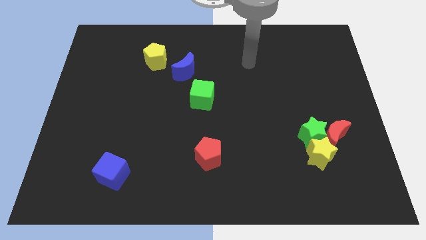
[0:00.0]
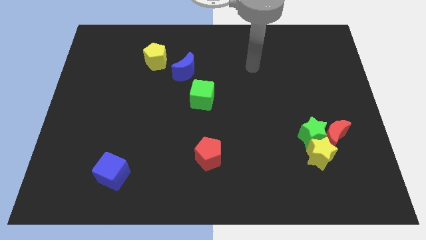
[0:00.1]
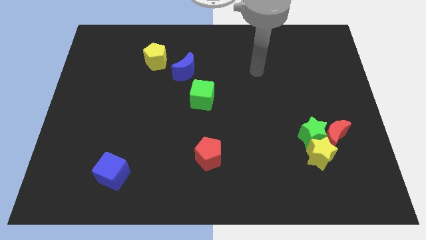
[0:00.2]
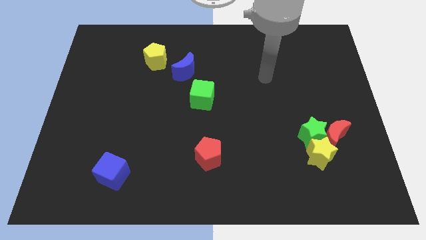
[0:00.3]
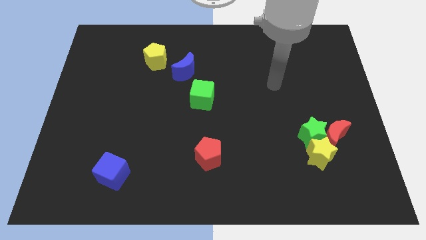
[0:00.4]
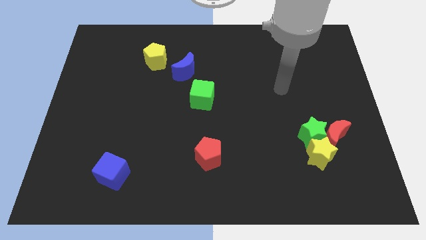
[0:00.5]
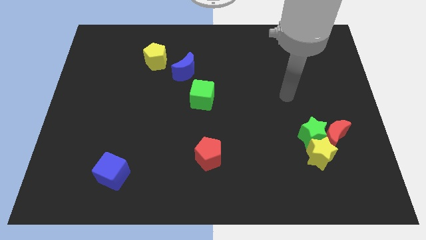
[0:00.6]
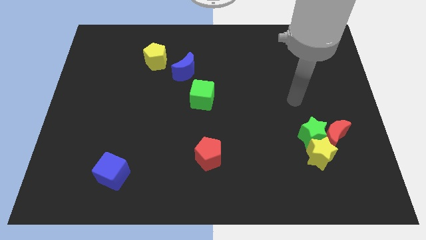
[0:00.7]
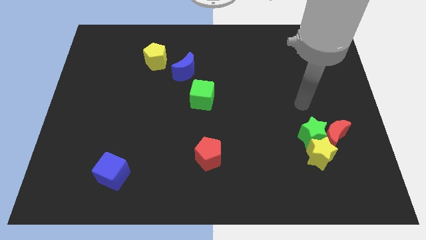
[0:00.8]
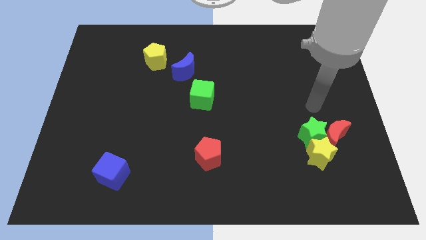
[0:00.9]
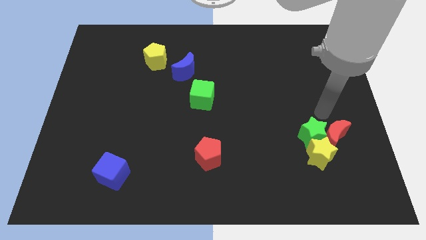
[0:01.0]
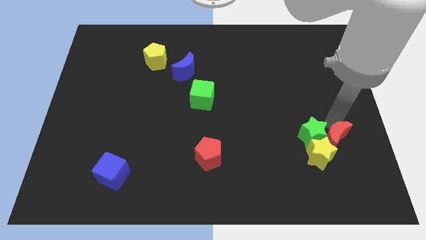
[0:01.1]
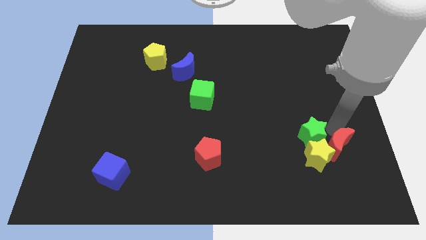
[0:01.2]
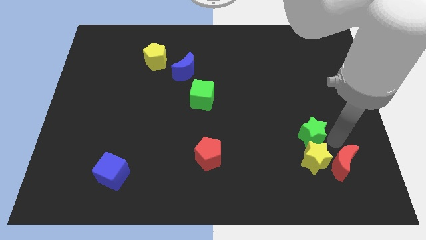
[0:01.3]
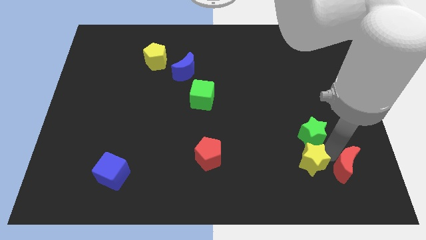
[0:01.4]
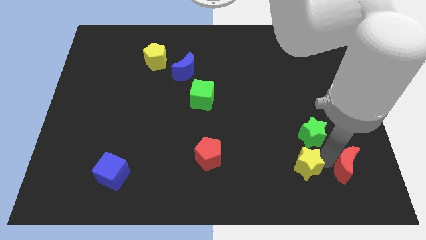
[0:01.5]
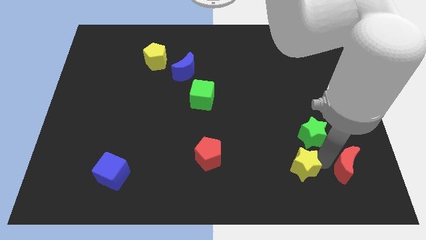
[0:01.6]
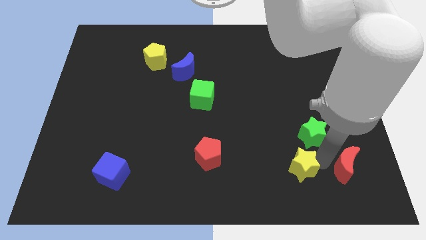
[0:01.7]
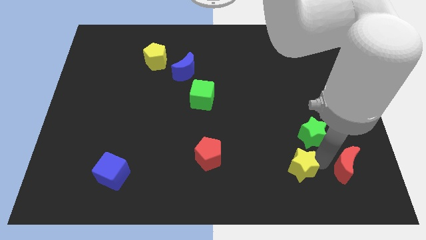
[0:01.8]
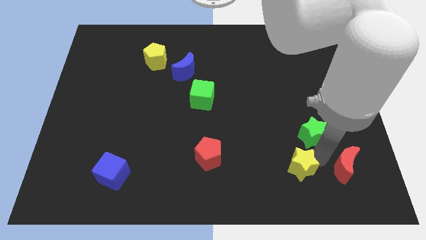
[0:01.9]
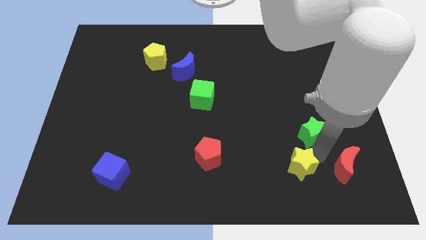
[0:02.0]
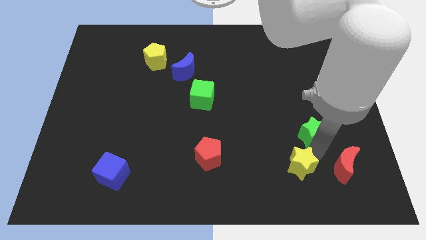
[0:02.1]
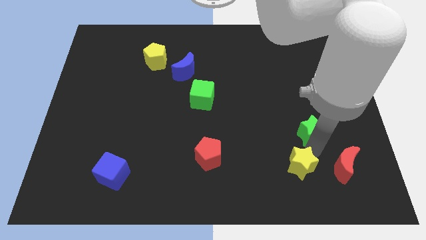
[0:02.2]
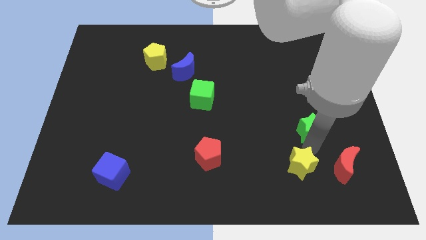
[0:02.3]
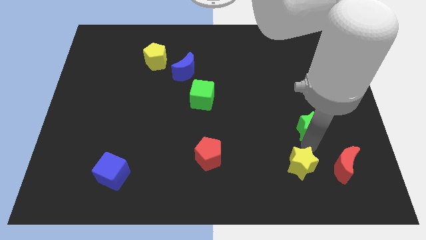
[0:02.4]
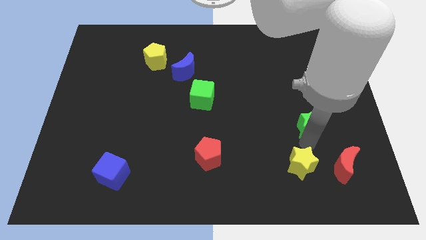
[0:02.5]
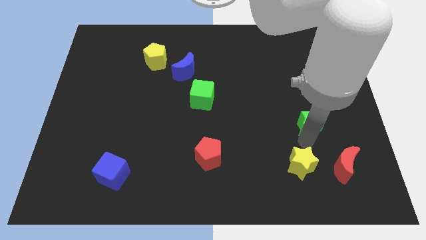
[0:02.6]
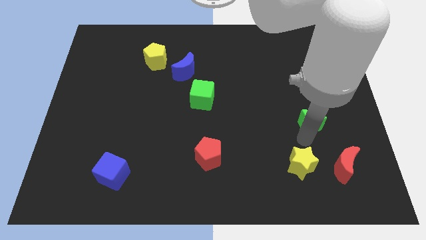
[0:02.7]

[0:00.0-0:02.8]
separate the green star from the red moon and yellow star

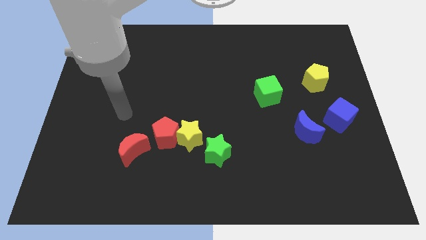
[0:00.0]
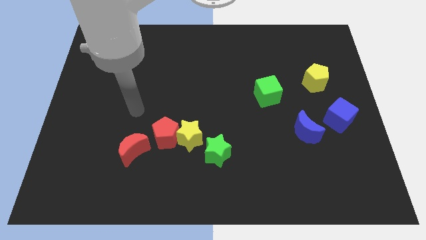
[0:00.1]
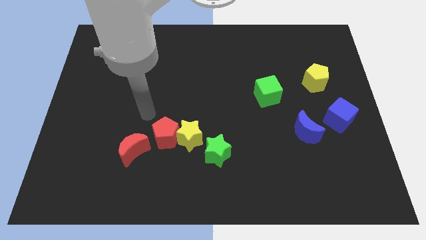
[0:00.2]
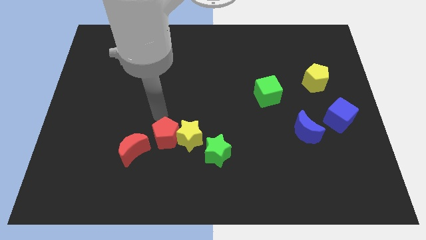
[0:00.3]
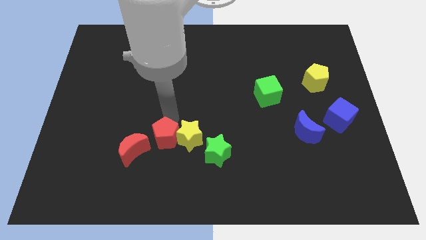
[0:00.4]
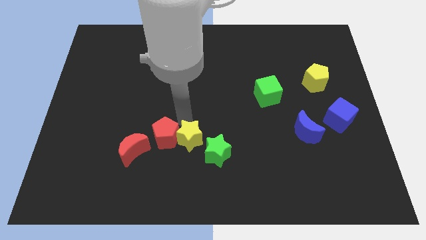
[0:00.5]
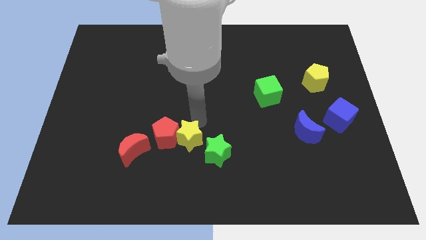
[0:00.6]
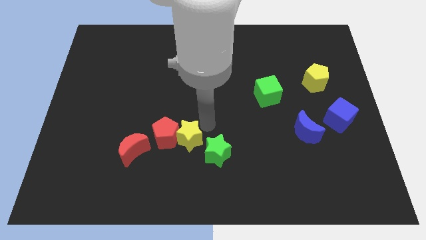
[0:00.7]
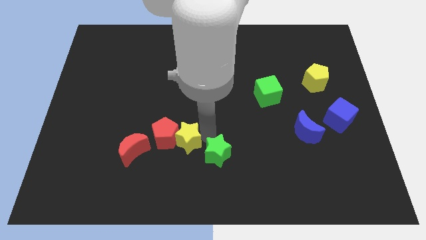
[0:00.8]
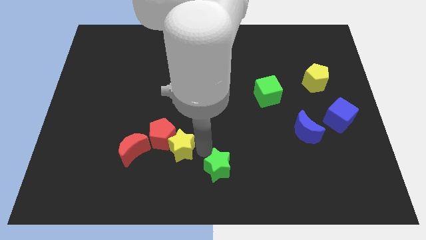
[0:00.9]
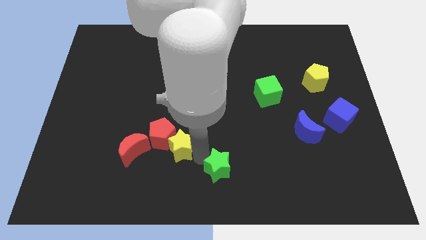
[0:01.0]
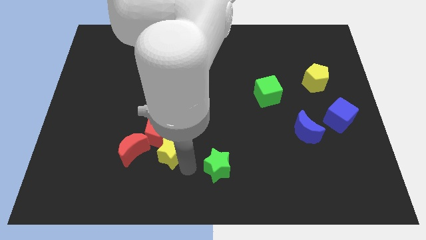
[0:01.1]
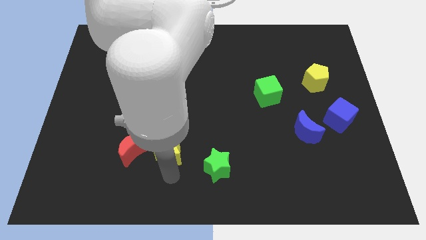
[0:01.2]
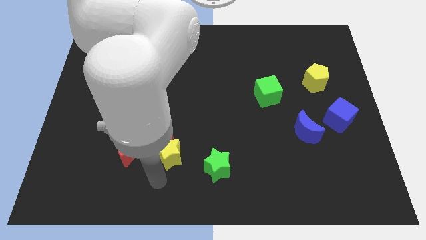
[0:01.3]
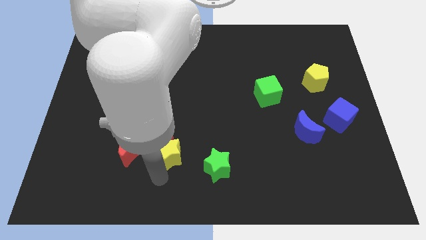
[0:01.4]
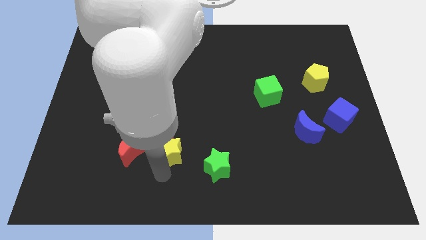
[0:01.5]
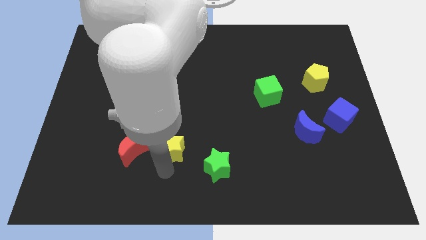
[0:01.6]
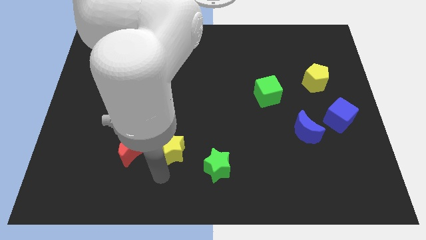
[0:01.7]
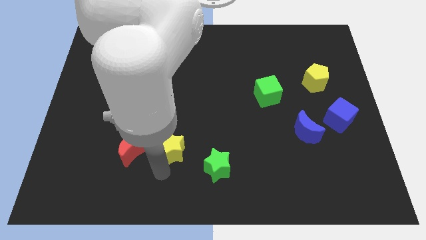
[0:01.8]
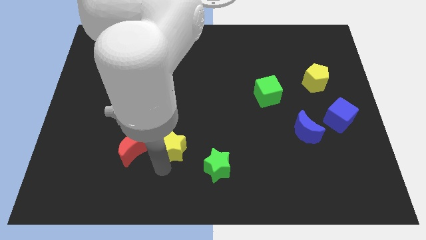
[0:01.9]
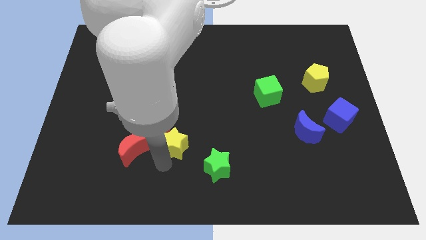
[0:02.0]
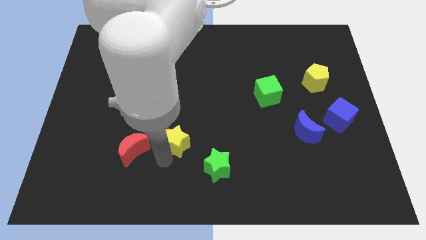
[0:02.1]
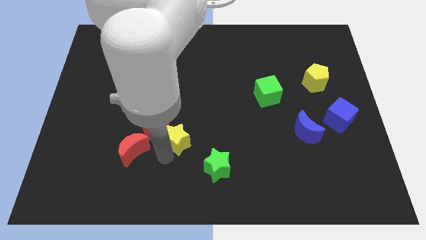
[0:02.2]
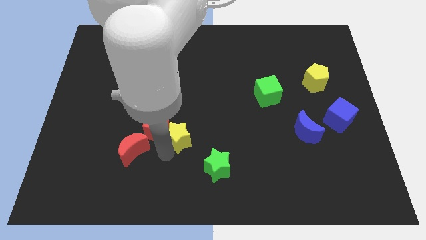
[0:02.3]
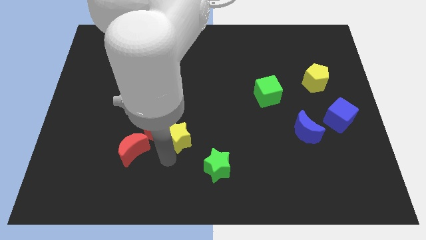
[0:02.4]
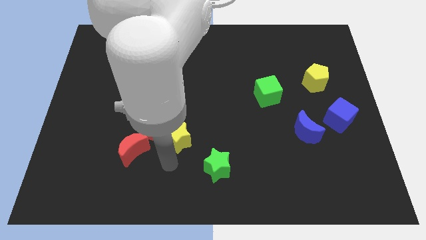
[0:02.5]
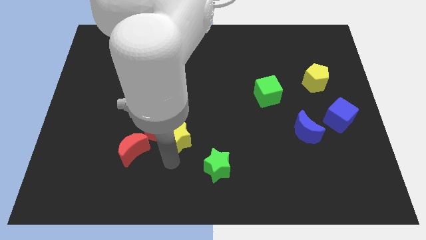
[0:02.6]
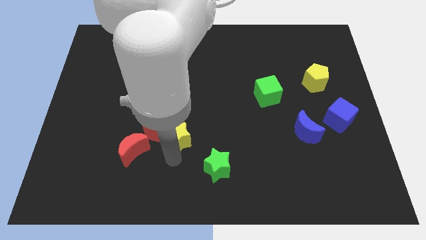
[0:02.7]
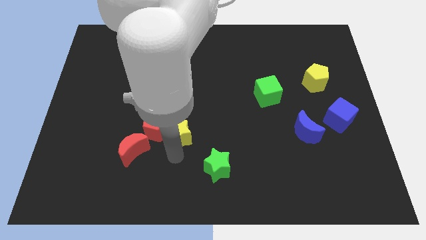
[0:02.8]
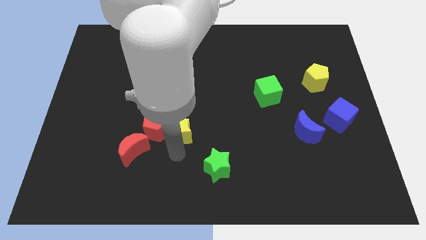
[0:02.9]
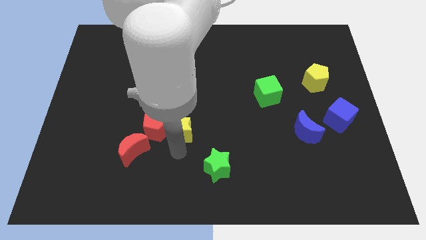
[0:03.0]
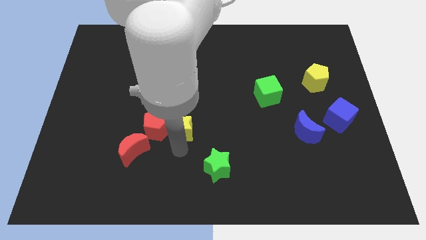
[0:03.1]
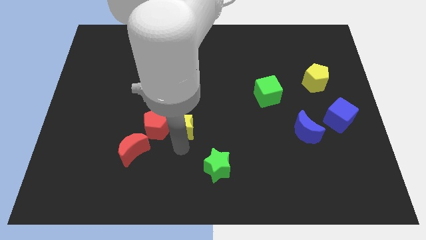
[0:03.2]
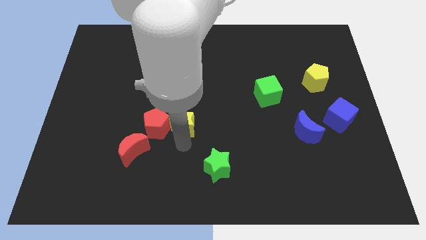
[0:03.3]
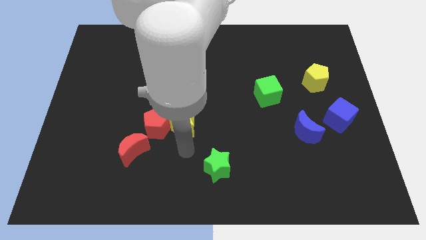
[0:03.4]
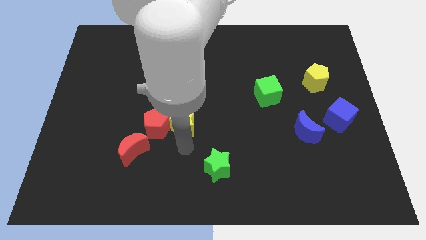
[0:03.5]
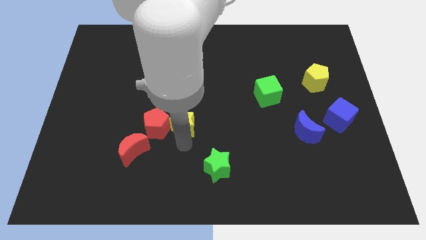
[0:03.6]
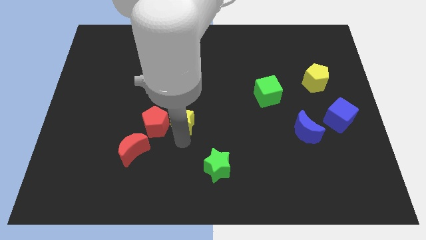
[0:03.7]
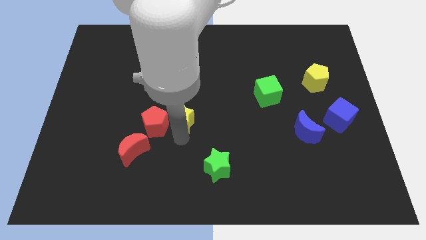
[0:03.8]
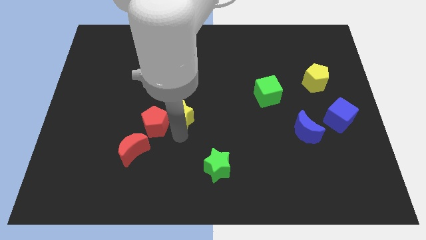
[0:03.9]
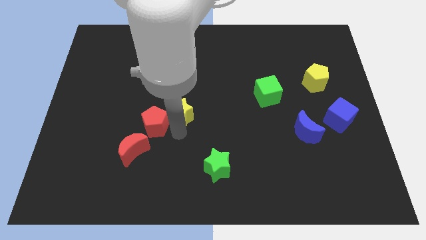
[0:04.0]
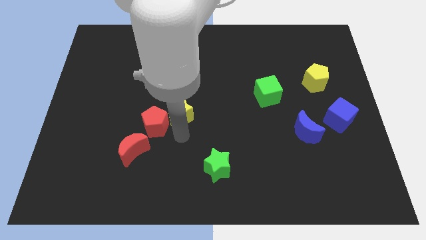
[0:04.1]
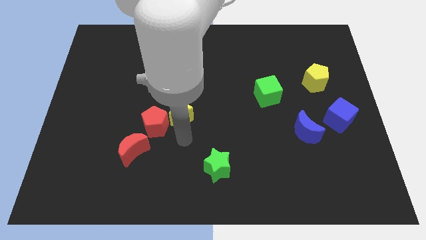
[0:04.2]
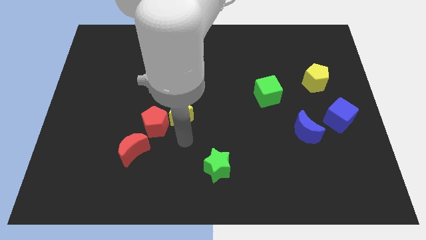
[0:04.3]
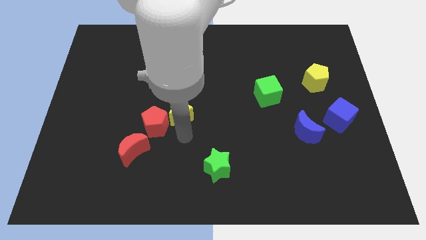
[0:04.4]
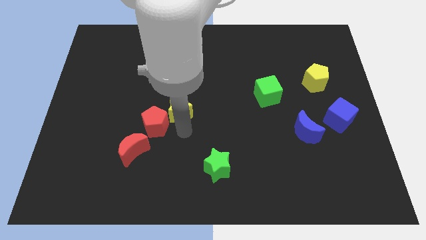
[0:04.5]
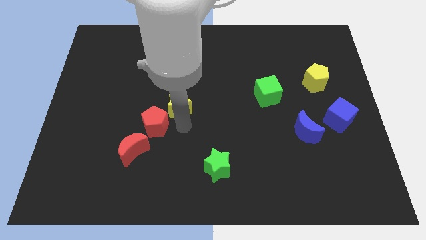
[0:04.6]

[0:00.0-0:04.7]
move the yellow star away from the red pentagon and green star

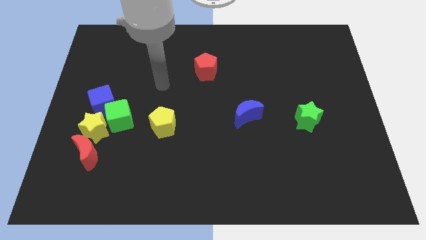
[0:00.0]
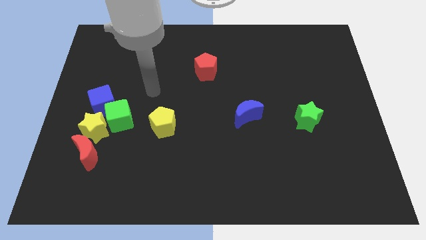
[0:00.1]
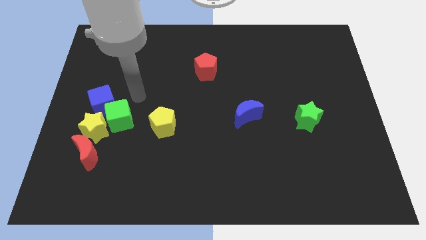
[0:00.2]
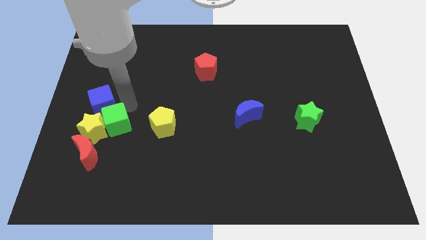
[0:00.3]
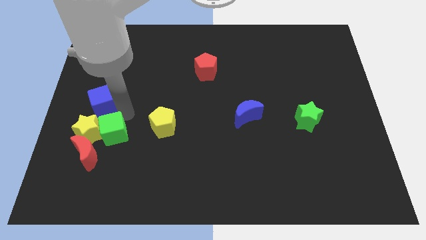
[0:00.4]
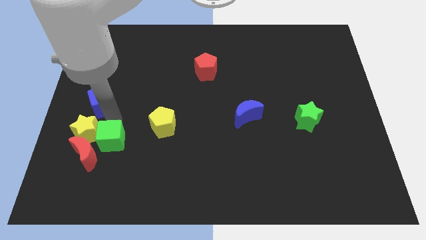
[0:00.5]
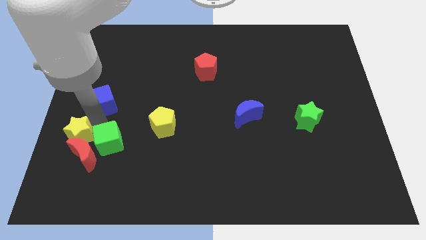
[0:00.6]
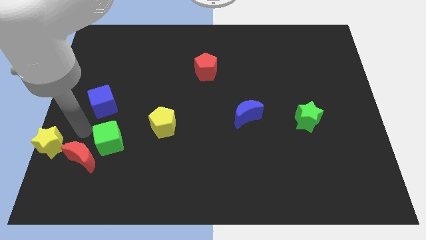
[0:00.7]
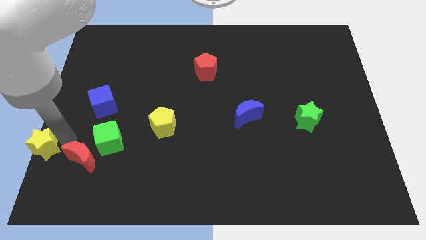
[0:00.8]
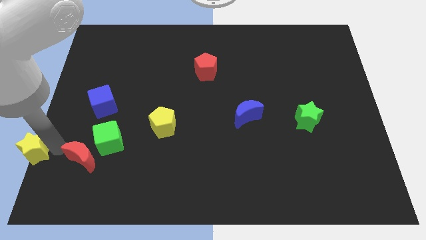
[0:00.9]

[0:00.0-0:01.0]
move the red moon away from the yellow star

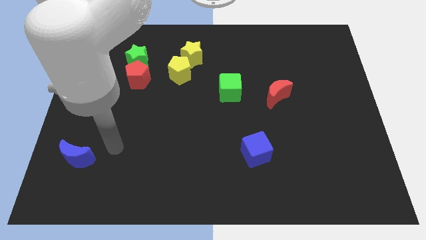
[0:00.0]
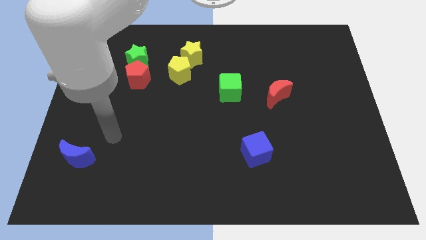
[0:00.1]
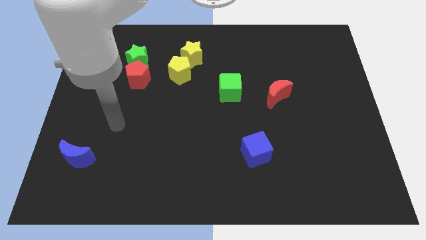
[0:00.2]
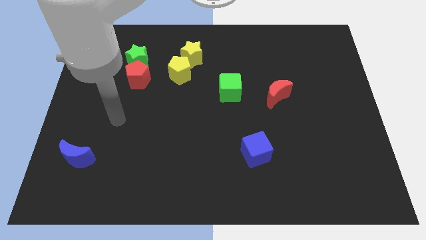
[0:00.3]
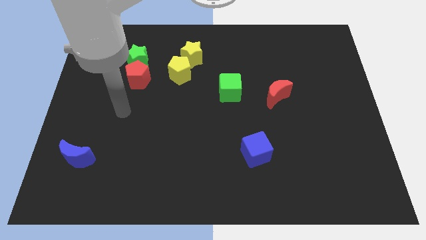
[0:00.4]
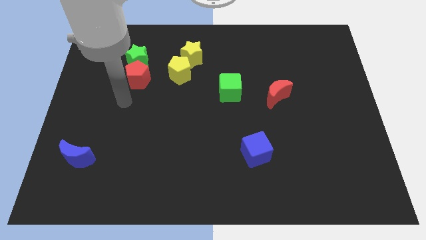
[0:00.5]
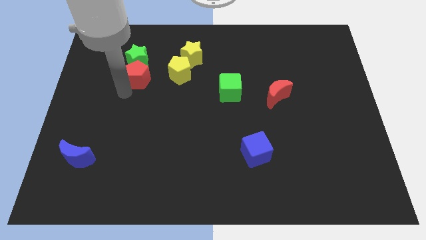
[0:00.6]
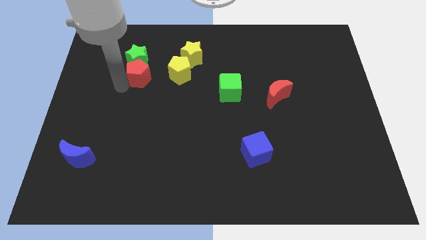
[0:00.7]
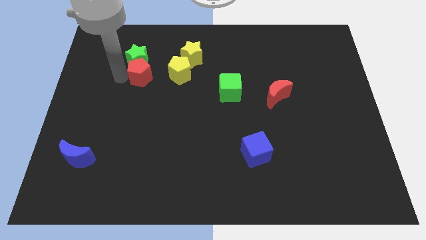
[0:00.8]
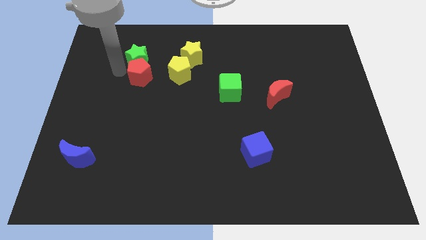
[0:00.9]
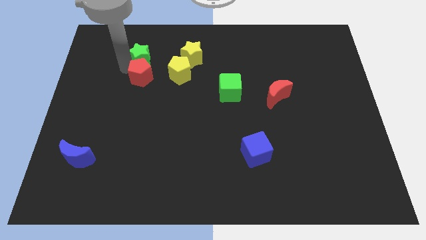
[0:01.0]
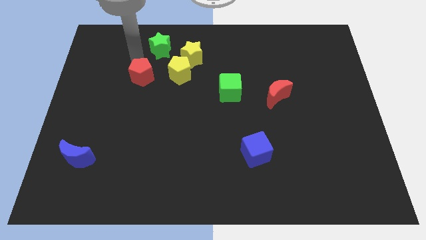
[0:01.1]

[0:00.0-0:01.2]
pull the red pentagon apart from the green star
